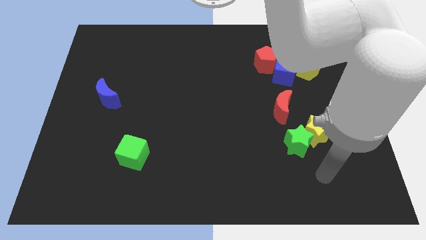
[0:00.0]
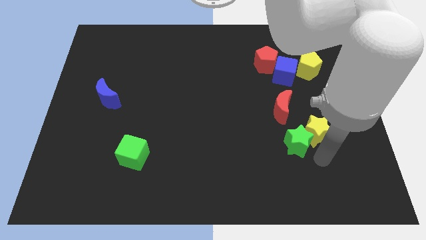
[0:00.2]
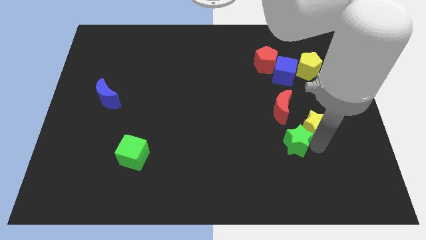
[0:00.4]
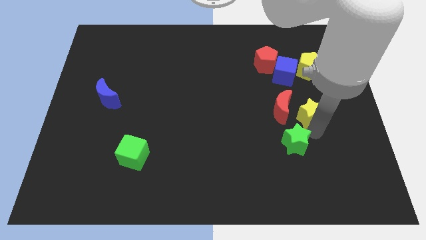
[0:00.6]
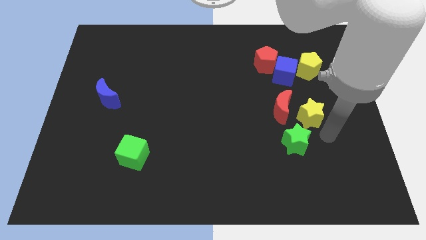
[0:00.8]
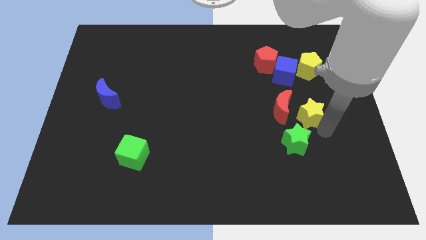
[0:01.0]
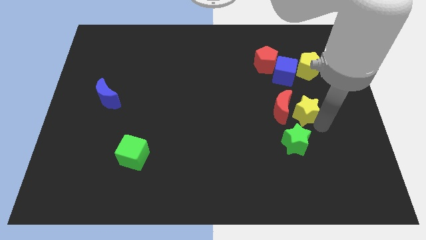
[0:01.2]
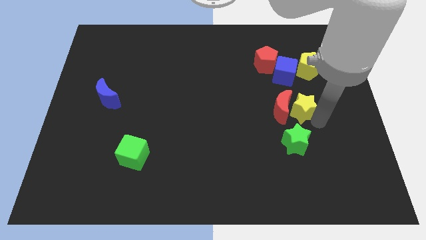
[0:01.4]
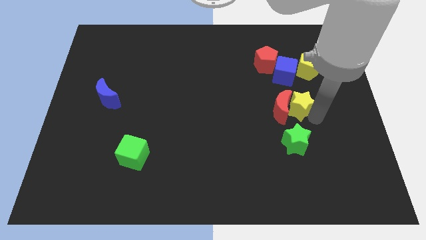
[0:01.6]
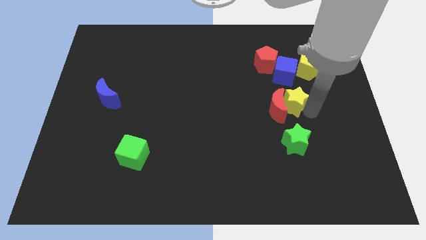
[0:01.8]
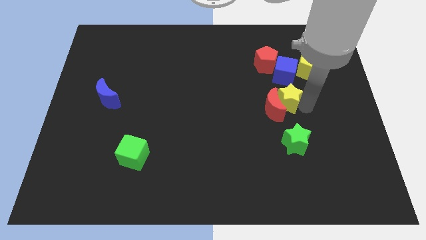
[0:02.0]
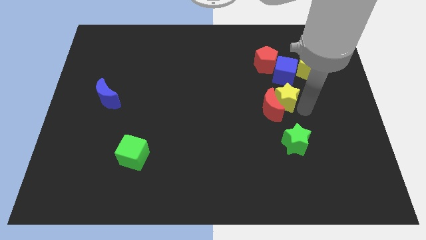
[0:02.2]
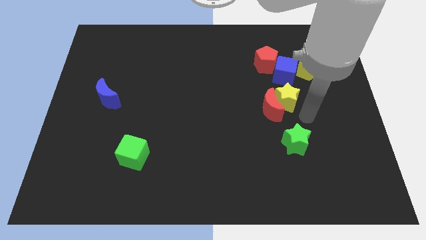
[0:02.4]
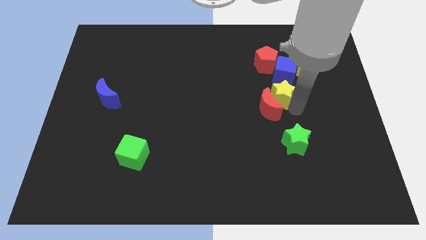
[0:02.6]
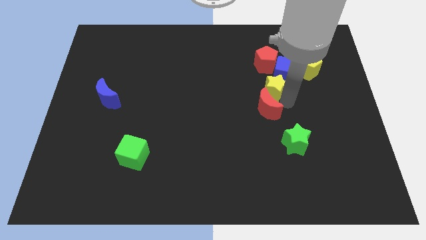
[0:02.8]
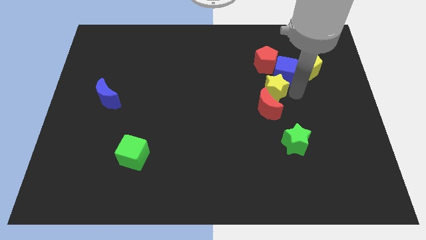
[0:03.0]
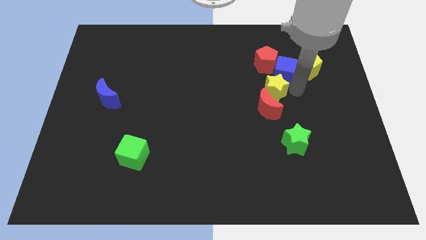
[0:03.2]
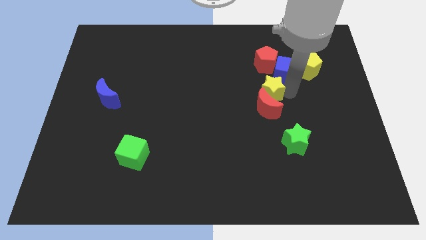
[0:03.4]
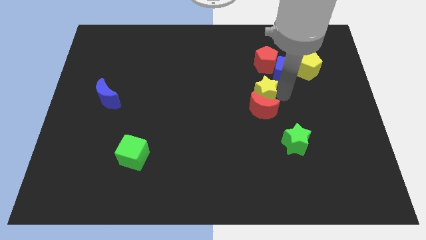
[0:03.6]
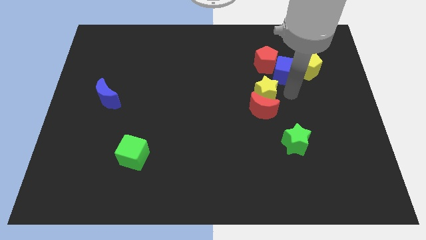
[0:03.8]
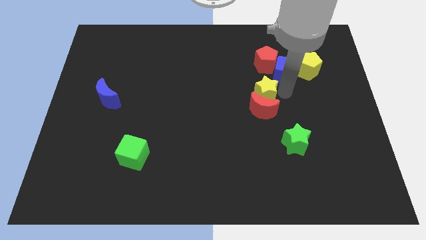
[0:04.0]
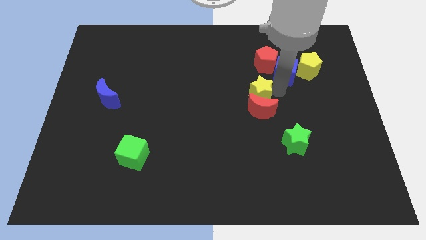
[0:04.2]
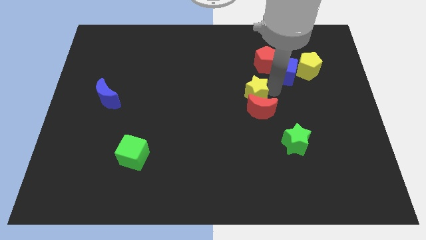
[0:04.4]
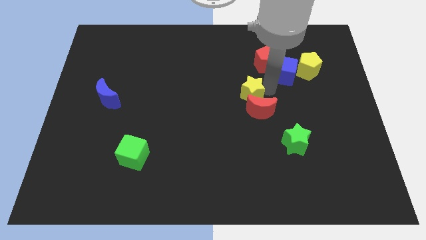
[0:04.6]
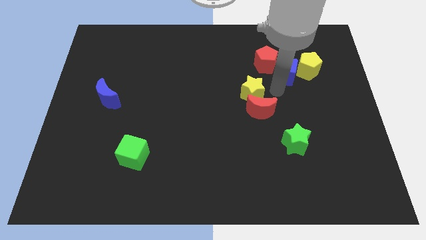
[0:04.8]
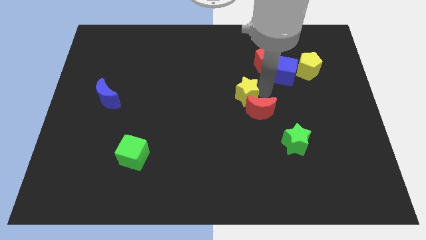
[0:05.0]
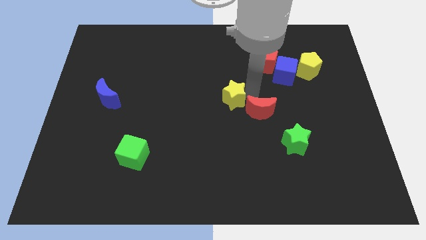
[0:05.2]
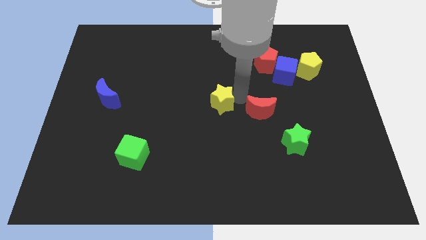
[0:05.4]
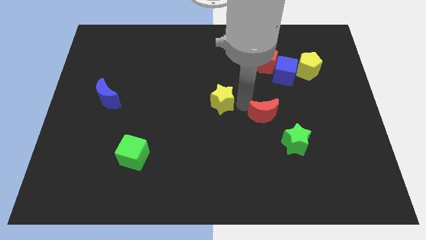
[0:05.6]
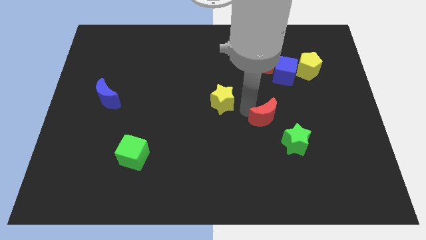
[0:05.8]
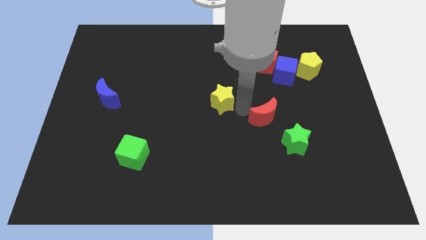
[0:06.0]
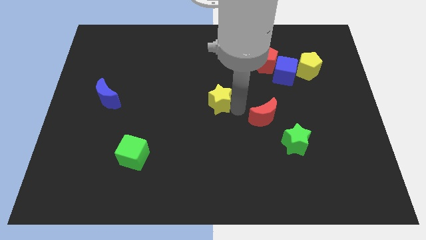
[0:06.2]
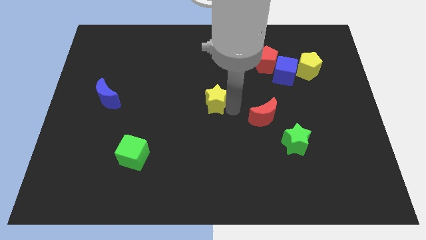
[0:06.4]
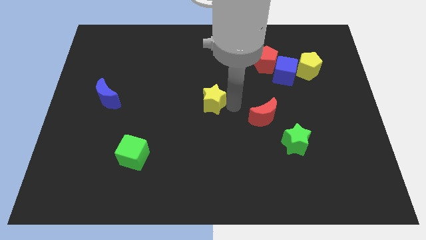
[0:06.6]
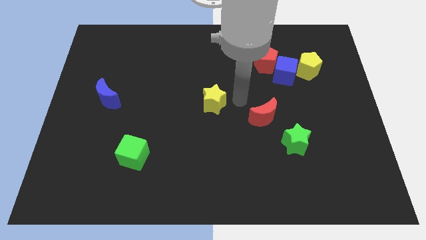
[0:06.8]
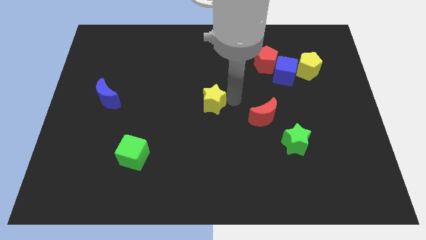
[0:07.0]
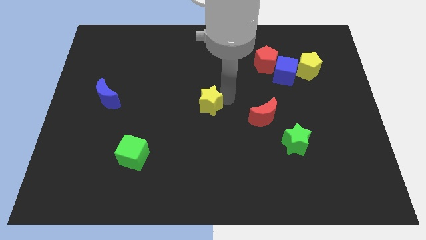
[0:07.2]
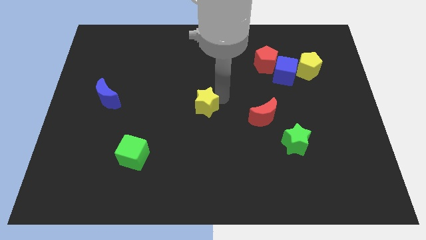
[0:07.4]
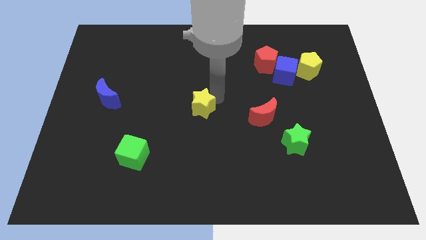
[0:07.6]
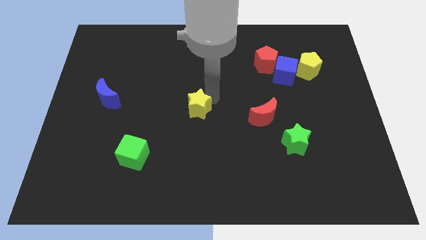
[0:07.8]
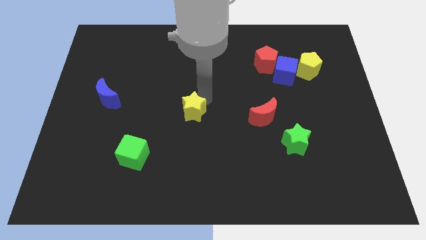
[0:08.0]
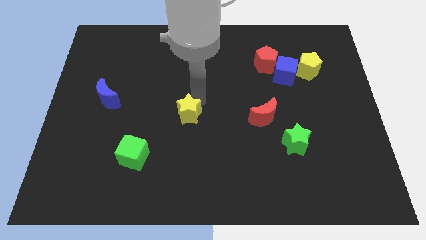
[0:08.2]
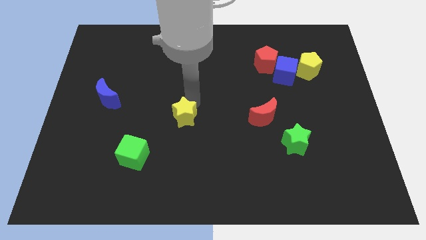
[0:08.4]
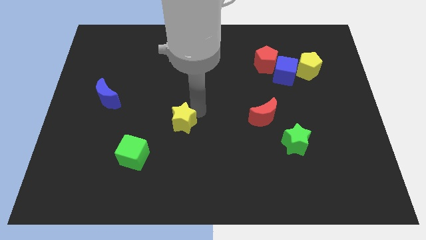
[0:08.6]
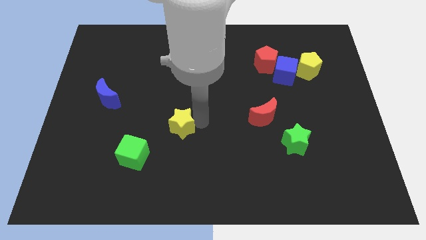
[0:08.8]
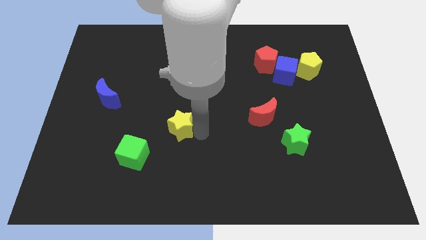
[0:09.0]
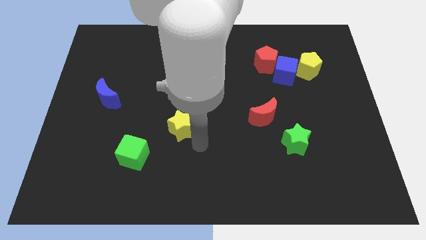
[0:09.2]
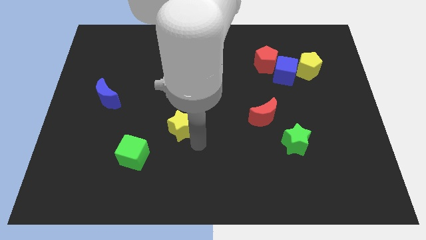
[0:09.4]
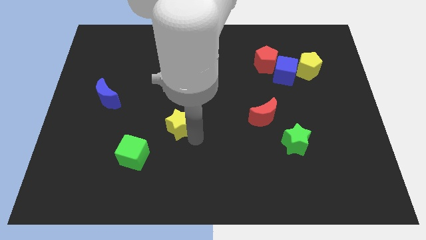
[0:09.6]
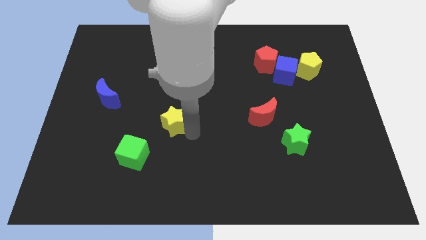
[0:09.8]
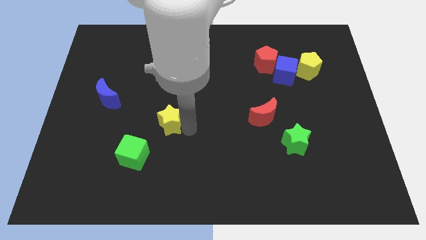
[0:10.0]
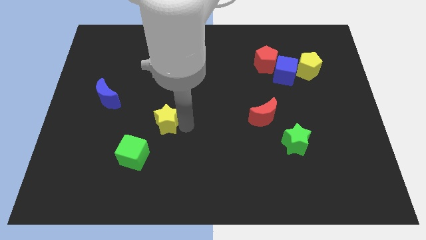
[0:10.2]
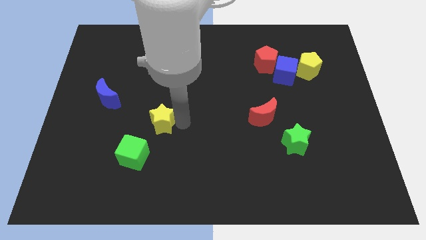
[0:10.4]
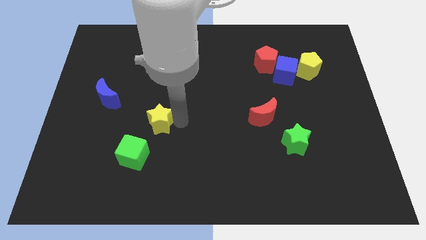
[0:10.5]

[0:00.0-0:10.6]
slide the yellow star to the top of the green cube

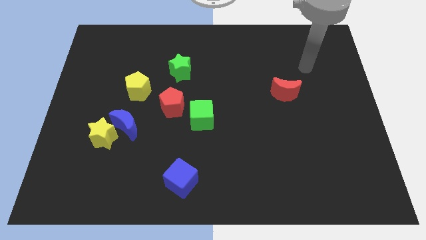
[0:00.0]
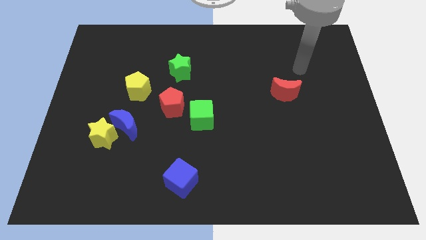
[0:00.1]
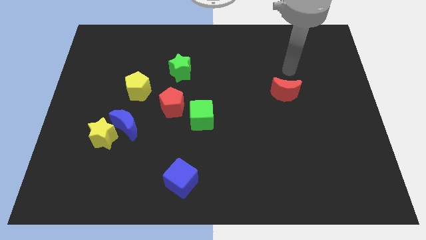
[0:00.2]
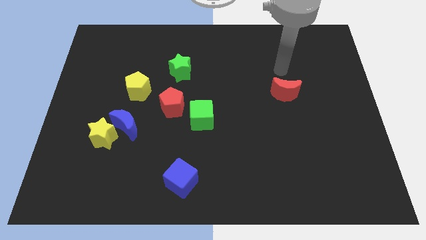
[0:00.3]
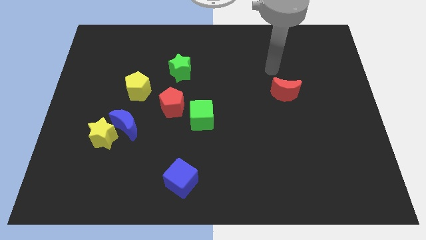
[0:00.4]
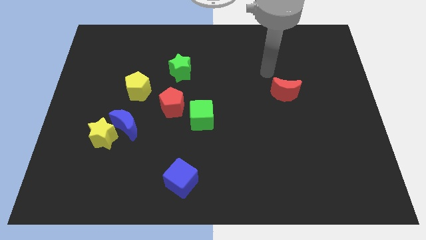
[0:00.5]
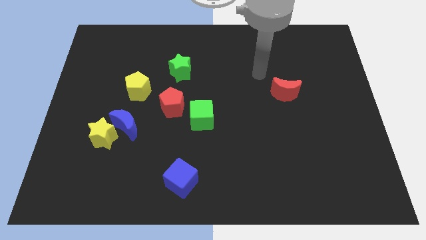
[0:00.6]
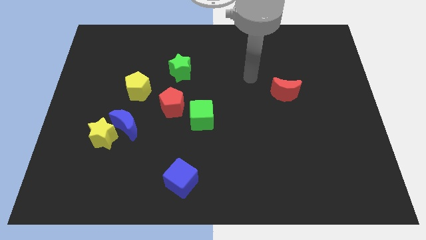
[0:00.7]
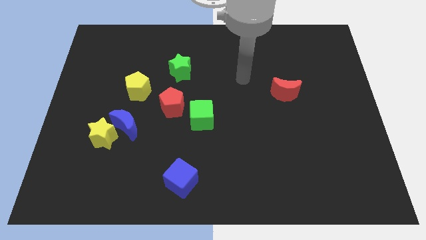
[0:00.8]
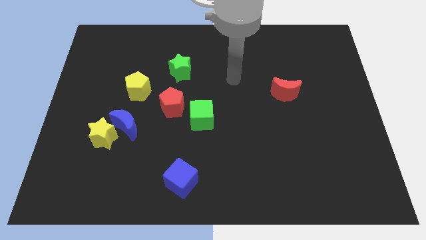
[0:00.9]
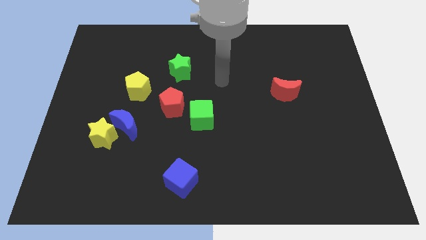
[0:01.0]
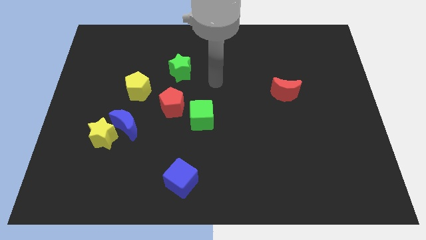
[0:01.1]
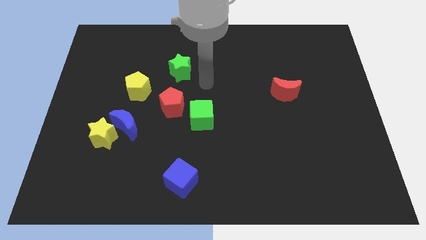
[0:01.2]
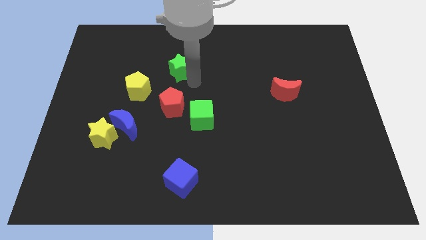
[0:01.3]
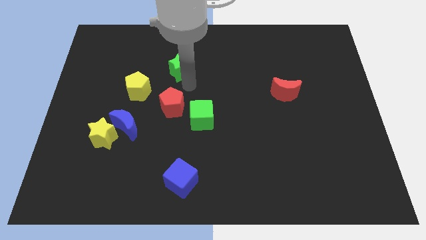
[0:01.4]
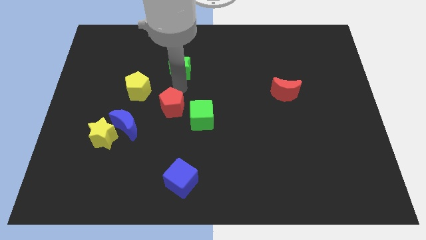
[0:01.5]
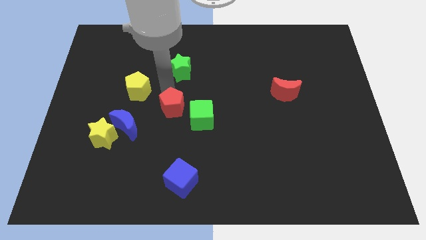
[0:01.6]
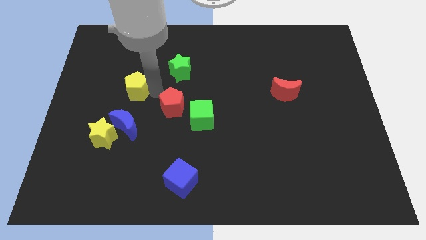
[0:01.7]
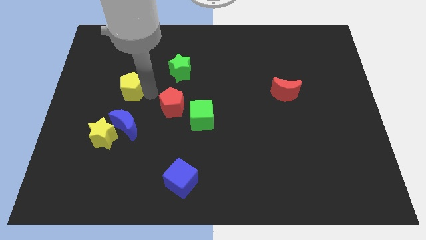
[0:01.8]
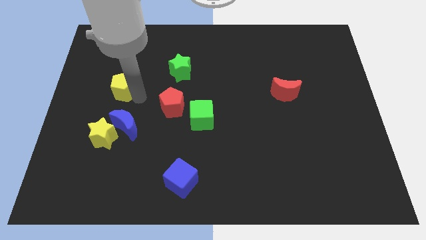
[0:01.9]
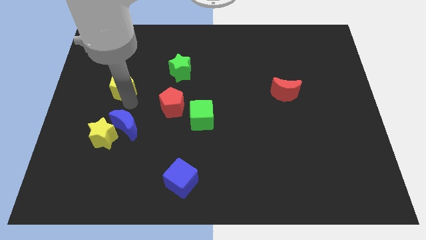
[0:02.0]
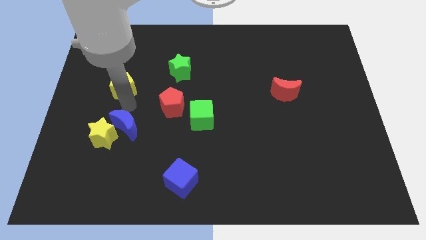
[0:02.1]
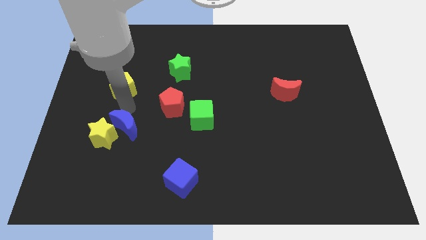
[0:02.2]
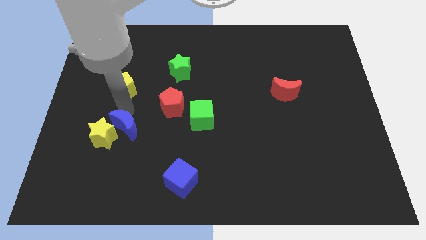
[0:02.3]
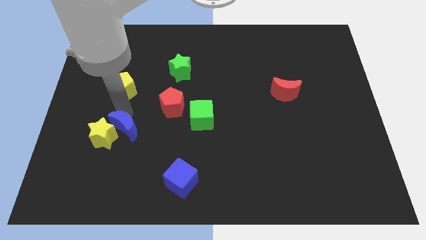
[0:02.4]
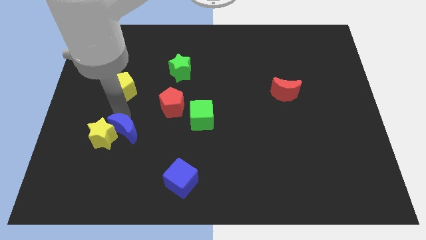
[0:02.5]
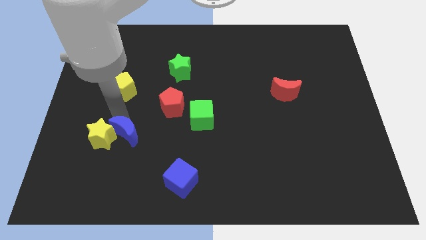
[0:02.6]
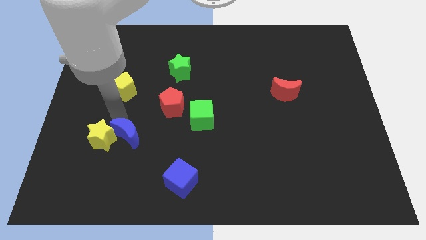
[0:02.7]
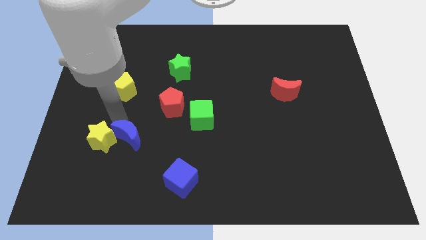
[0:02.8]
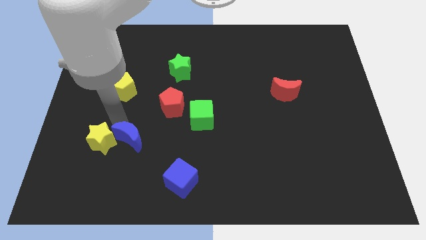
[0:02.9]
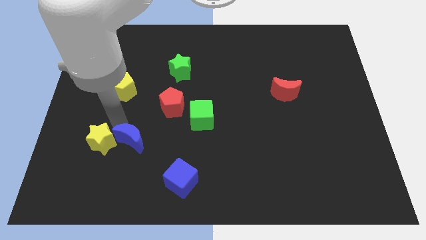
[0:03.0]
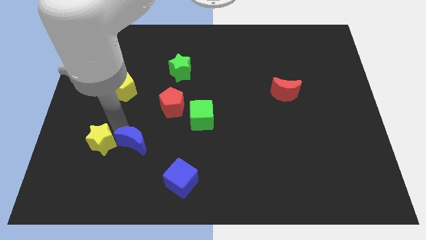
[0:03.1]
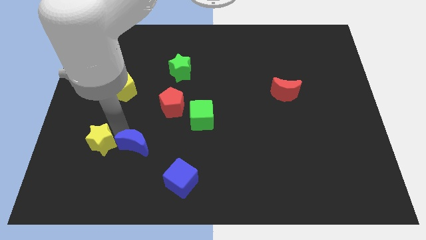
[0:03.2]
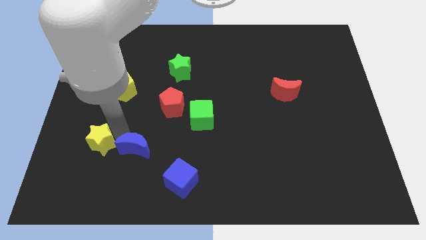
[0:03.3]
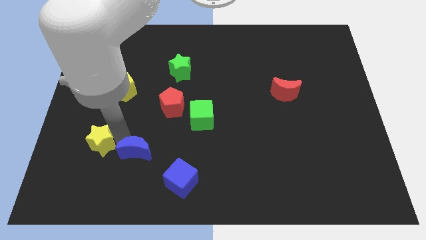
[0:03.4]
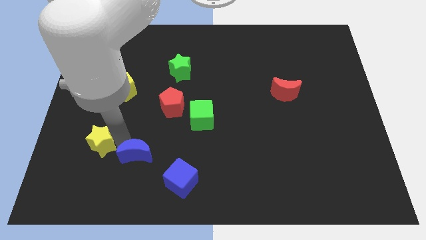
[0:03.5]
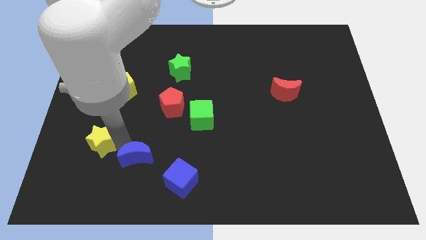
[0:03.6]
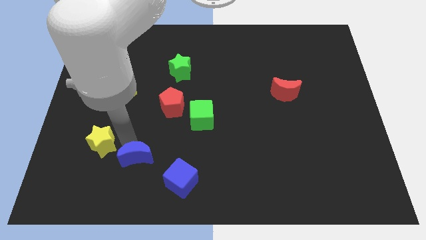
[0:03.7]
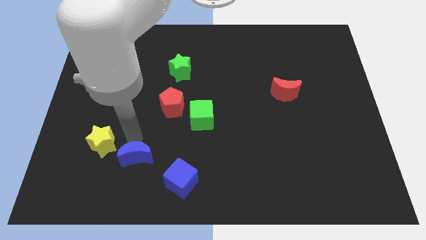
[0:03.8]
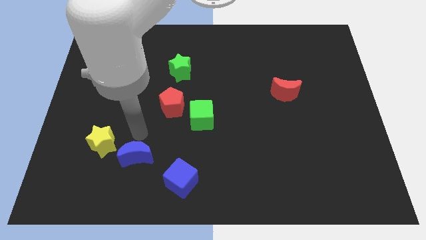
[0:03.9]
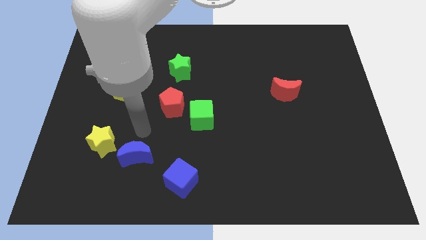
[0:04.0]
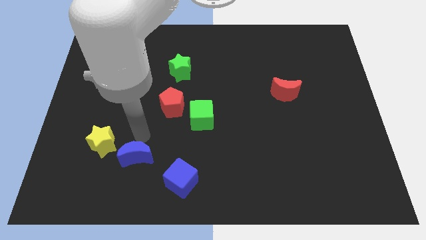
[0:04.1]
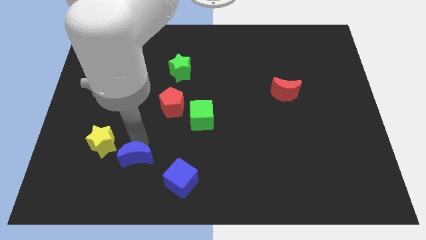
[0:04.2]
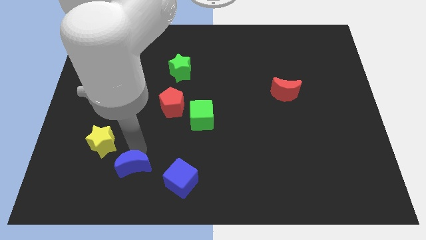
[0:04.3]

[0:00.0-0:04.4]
slide the blue moon just left of the blue cube
